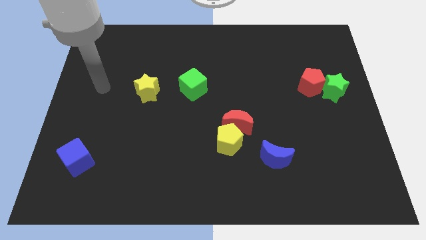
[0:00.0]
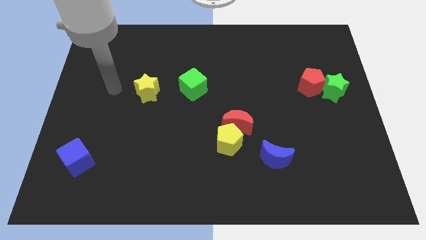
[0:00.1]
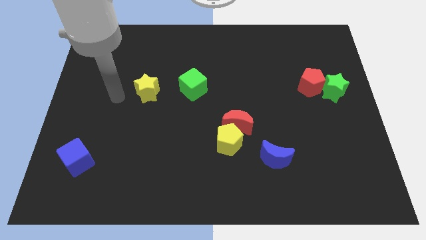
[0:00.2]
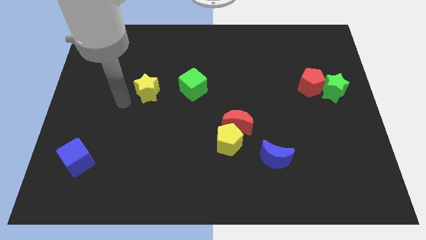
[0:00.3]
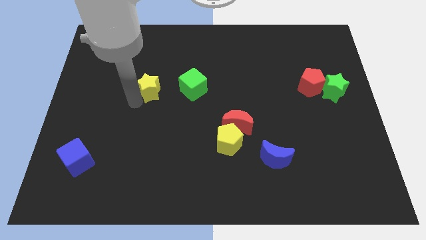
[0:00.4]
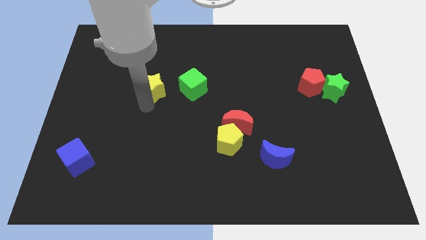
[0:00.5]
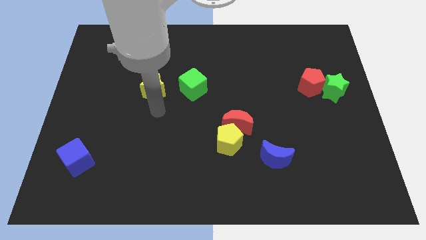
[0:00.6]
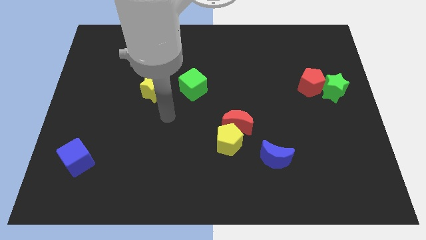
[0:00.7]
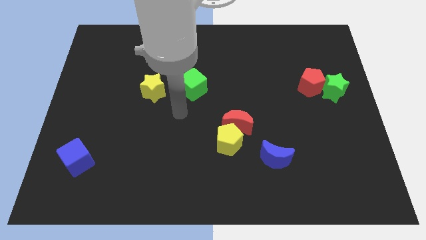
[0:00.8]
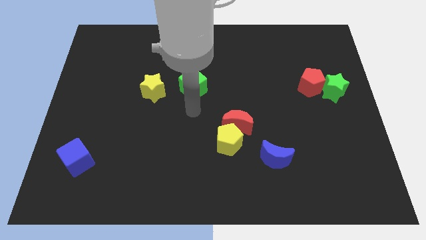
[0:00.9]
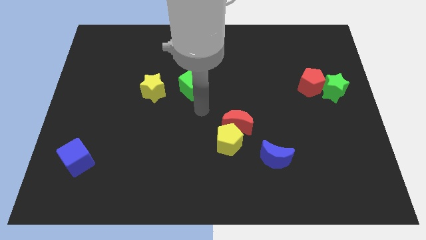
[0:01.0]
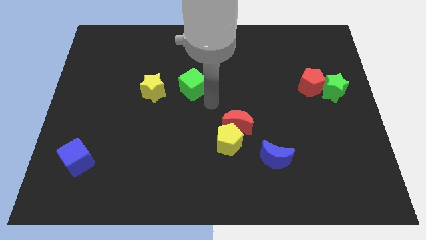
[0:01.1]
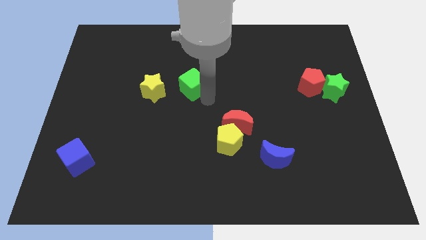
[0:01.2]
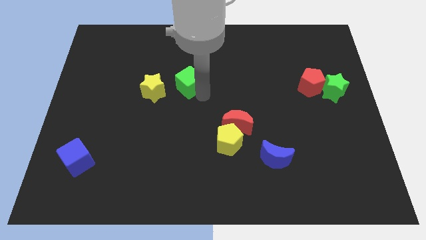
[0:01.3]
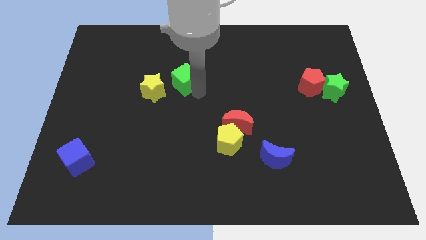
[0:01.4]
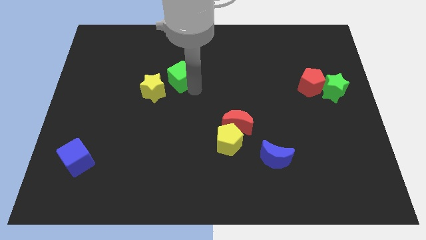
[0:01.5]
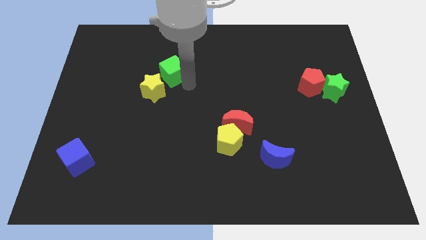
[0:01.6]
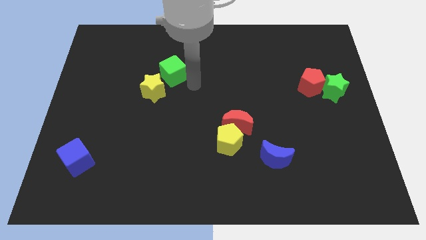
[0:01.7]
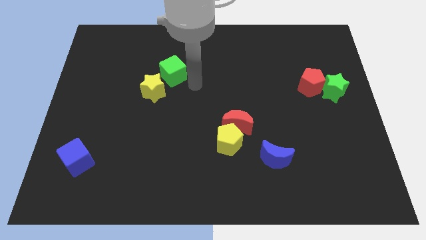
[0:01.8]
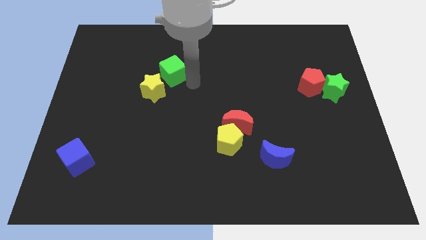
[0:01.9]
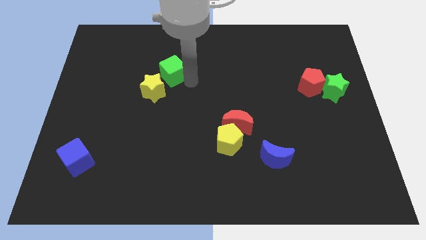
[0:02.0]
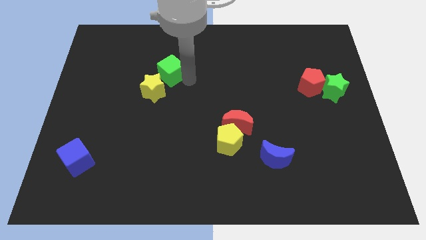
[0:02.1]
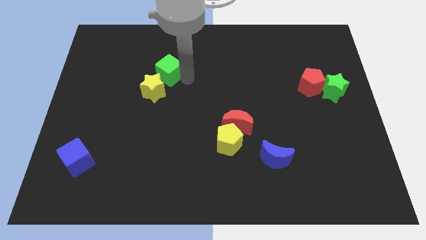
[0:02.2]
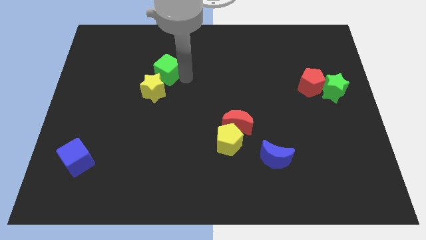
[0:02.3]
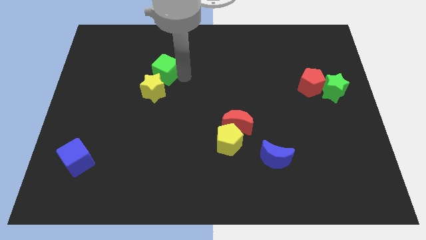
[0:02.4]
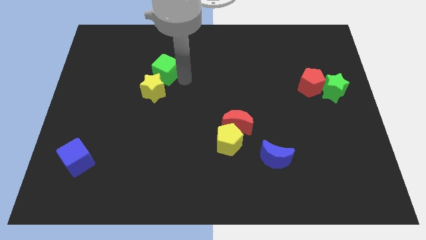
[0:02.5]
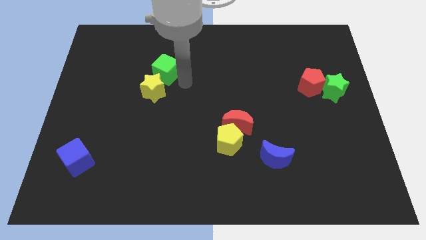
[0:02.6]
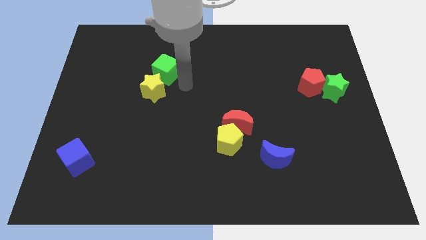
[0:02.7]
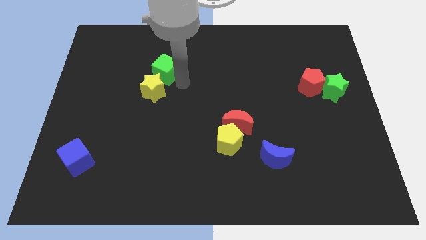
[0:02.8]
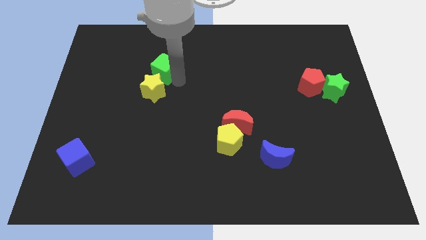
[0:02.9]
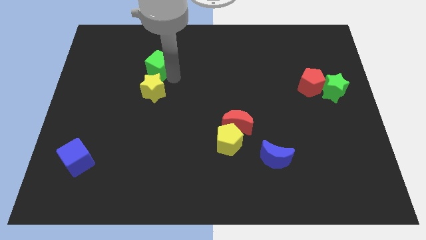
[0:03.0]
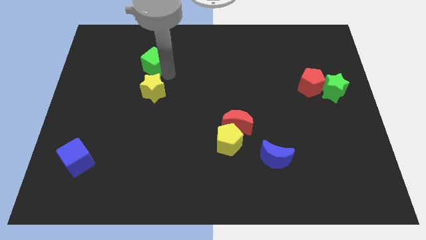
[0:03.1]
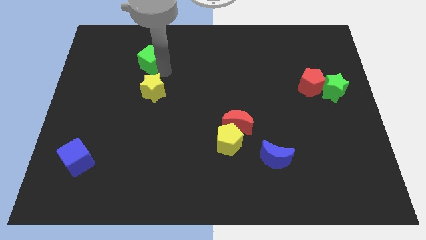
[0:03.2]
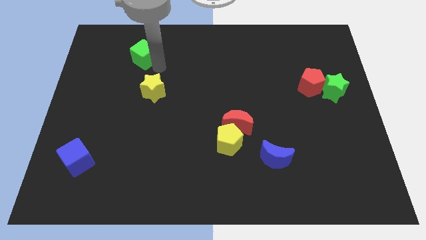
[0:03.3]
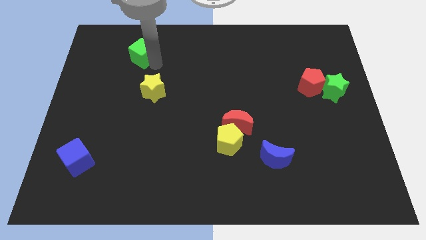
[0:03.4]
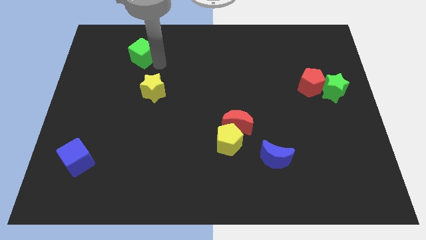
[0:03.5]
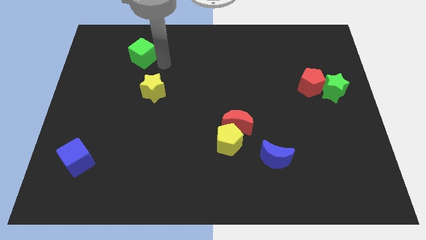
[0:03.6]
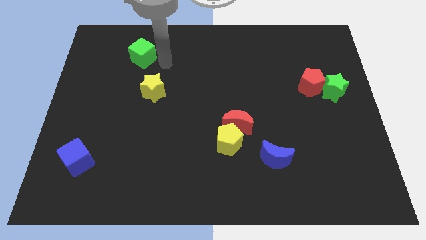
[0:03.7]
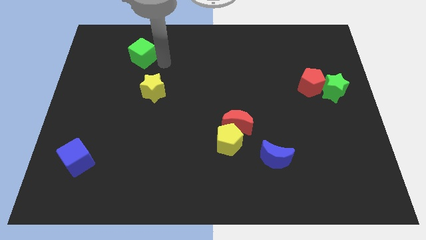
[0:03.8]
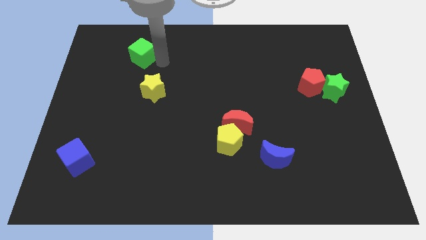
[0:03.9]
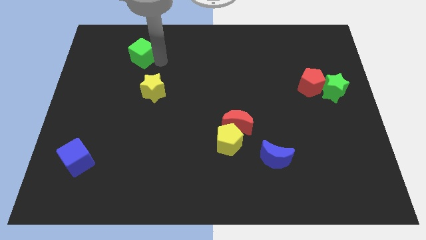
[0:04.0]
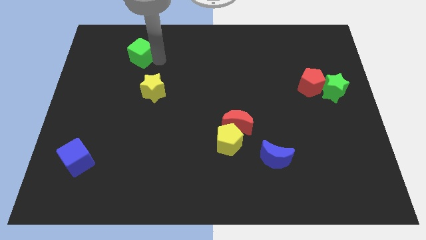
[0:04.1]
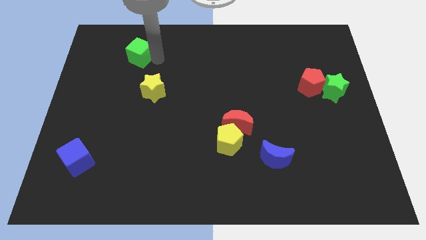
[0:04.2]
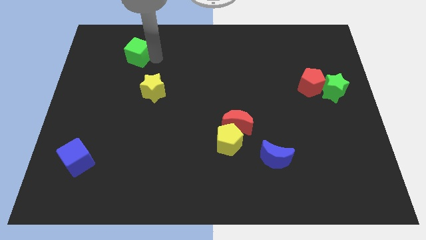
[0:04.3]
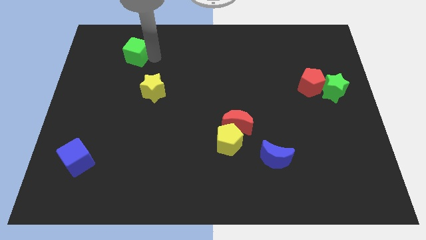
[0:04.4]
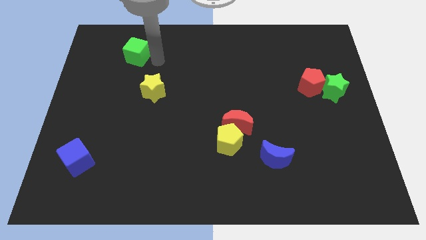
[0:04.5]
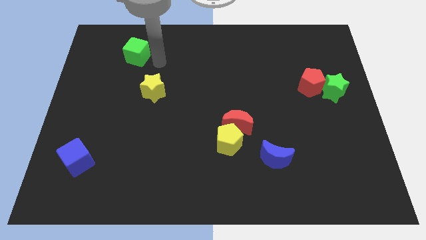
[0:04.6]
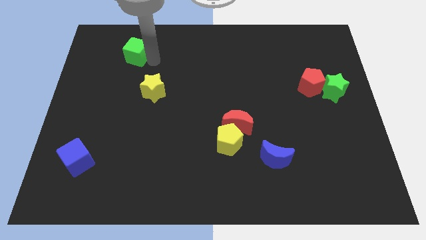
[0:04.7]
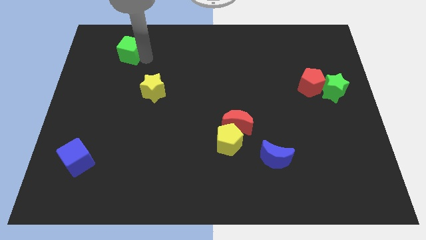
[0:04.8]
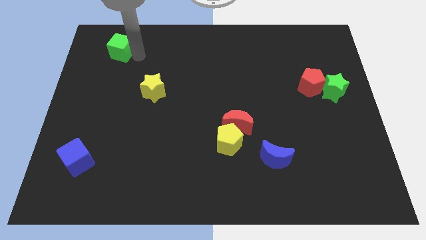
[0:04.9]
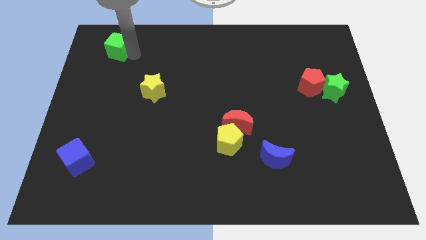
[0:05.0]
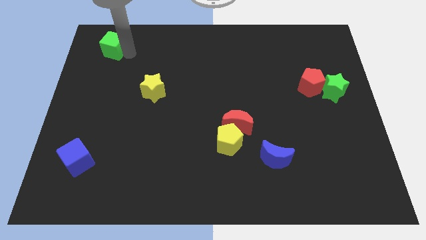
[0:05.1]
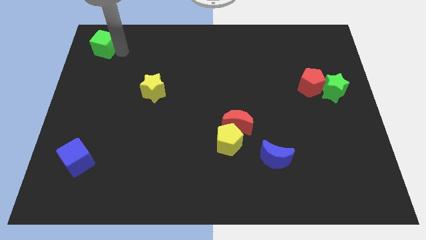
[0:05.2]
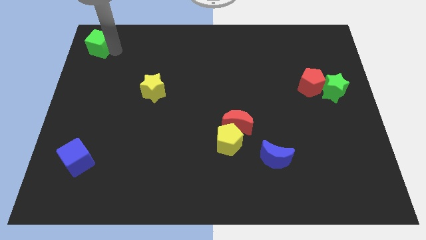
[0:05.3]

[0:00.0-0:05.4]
slide the green cube to the upper left corner
